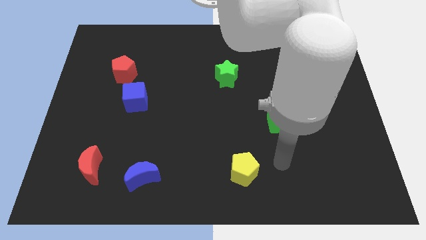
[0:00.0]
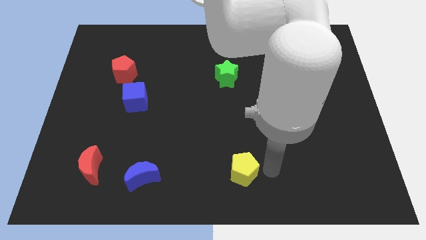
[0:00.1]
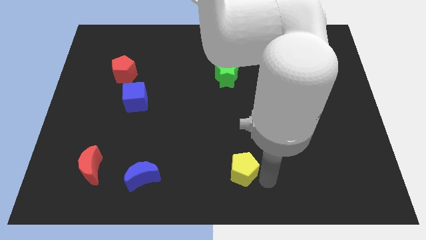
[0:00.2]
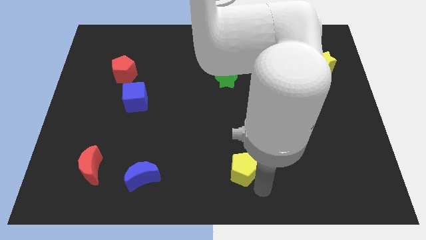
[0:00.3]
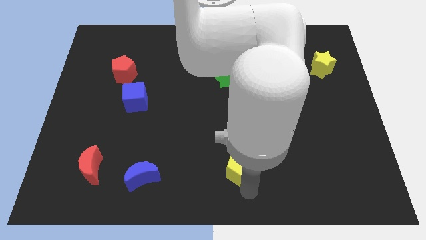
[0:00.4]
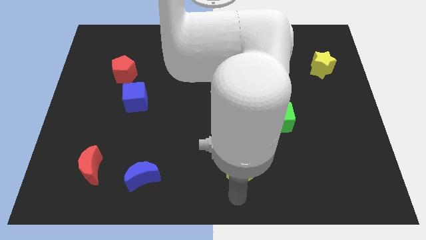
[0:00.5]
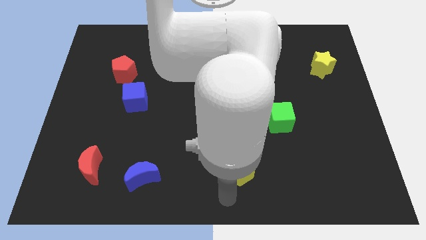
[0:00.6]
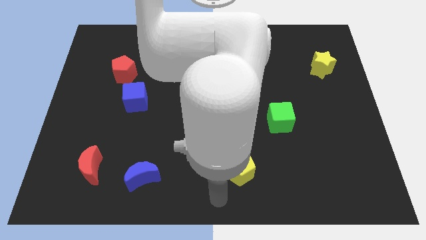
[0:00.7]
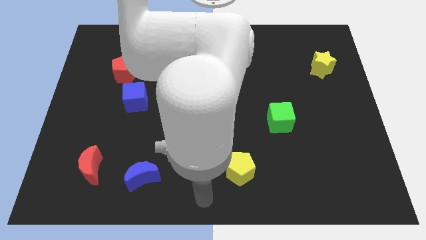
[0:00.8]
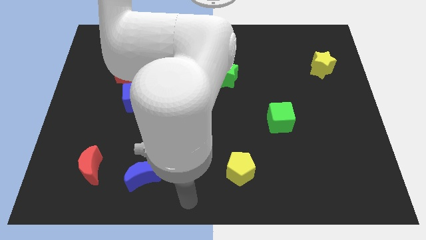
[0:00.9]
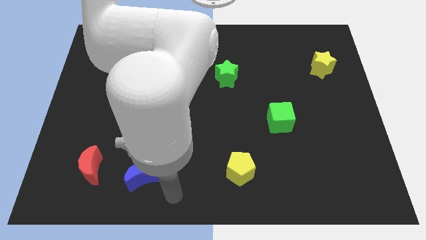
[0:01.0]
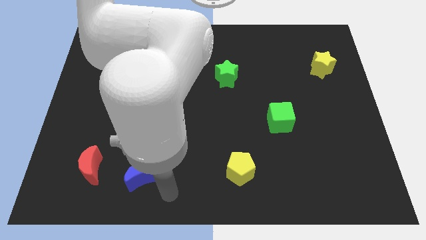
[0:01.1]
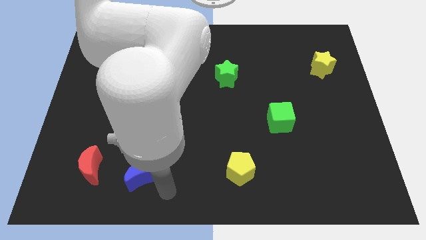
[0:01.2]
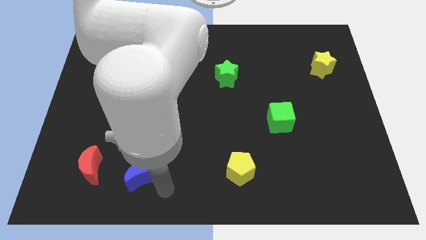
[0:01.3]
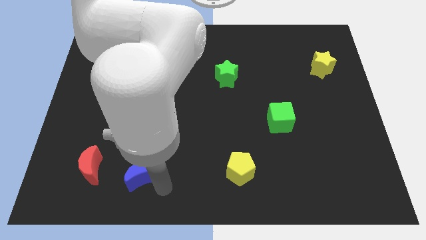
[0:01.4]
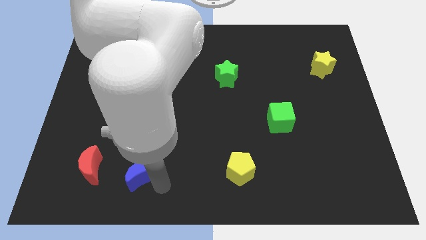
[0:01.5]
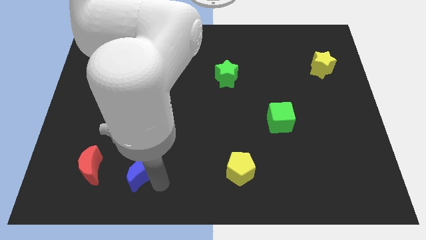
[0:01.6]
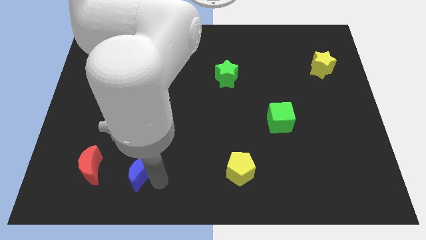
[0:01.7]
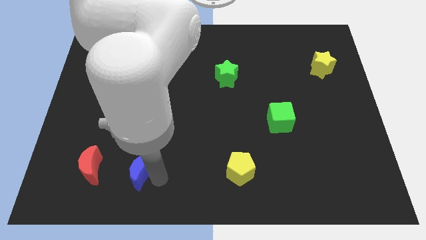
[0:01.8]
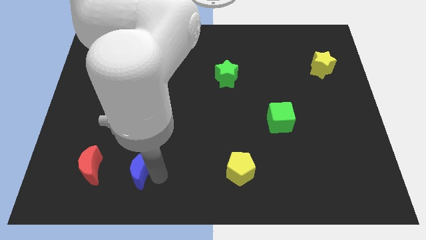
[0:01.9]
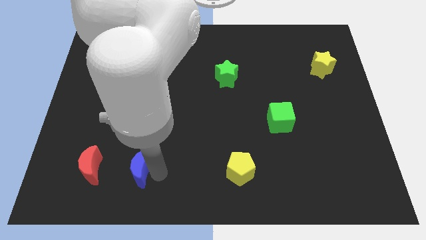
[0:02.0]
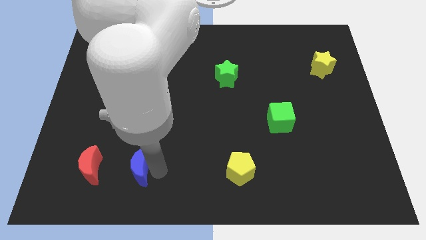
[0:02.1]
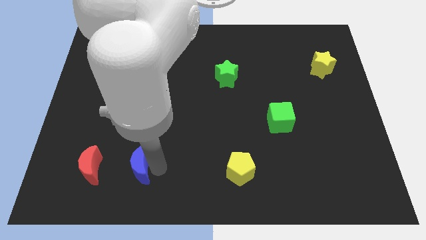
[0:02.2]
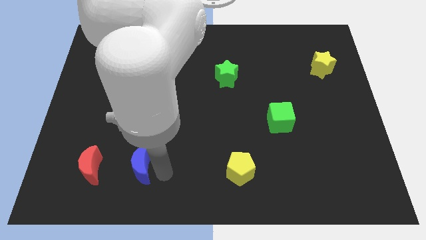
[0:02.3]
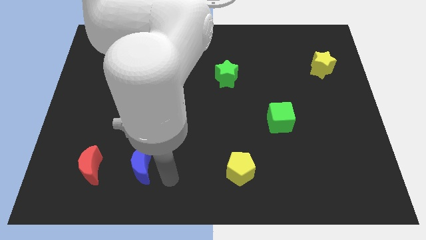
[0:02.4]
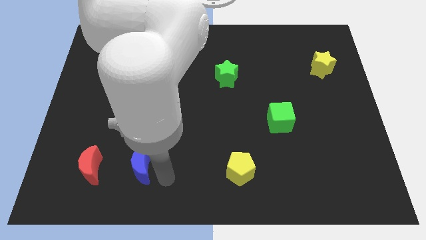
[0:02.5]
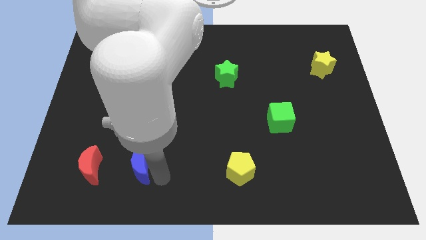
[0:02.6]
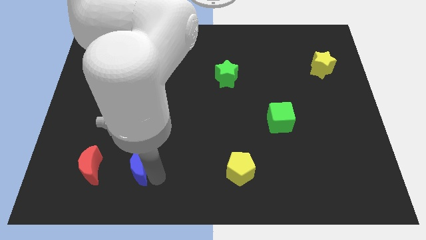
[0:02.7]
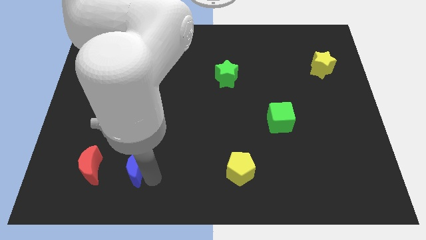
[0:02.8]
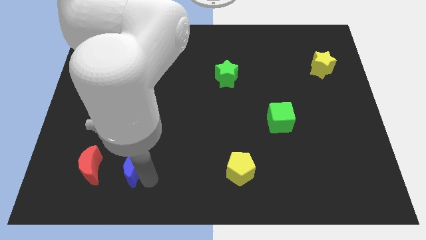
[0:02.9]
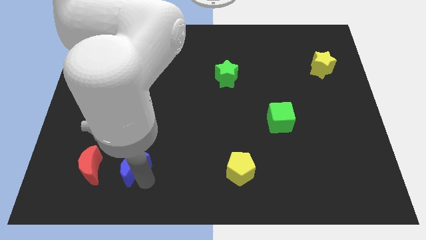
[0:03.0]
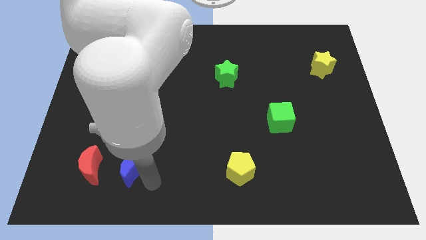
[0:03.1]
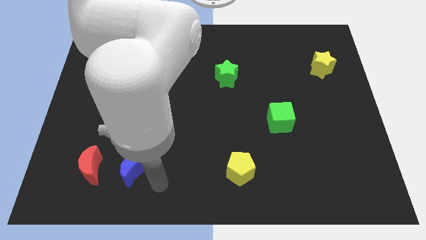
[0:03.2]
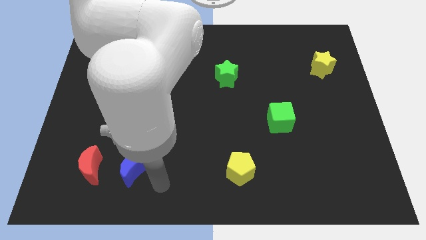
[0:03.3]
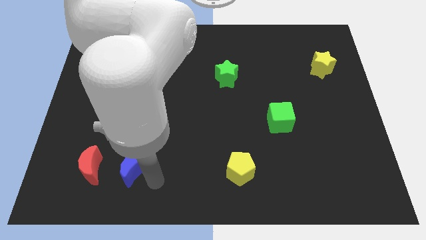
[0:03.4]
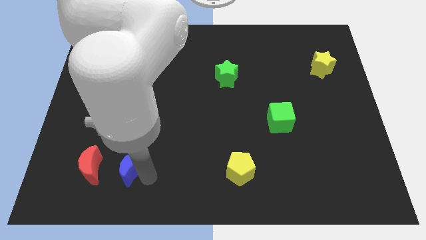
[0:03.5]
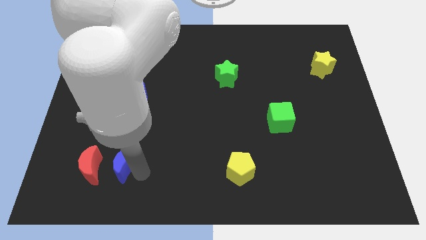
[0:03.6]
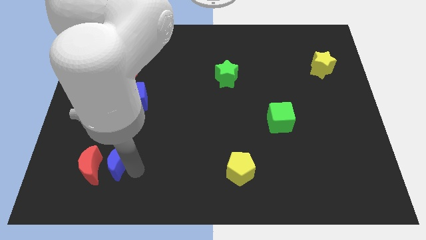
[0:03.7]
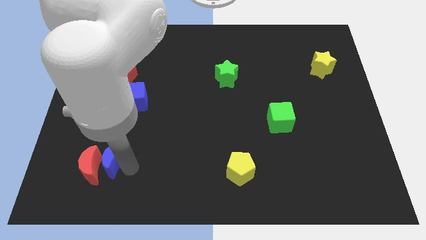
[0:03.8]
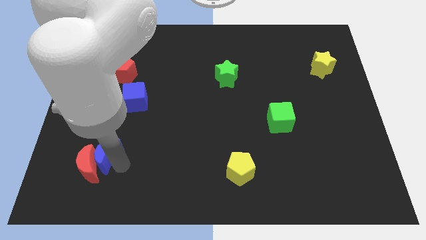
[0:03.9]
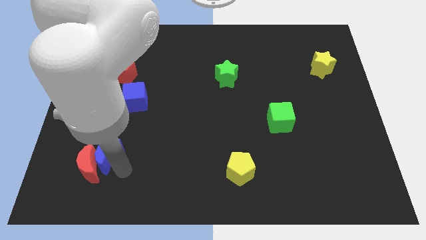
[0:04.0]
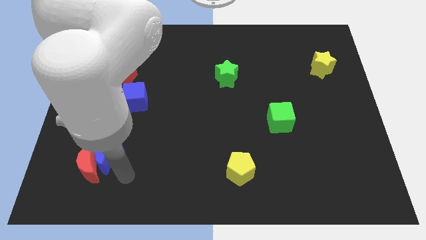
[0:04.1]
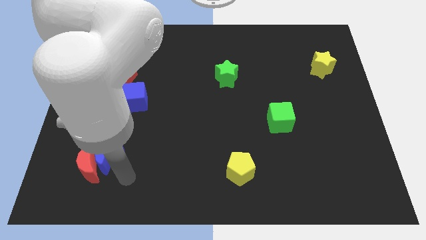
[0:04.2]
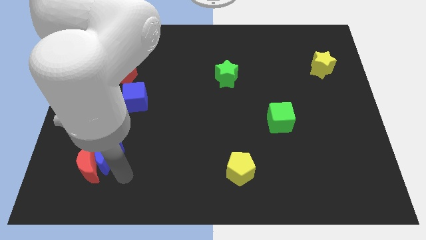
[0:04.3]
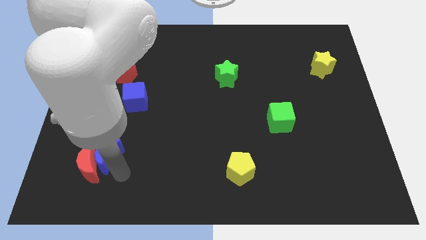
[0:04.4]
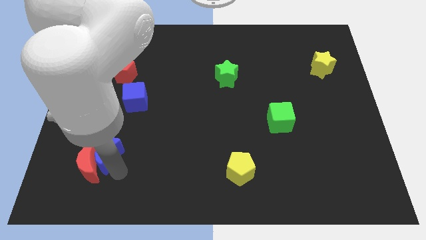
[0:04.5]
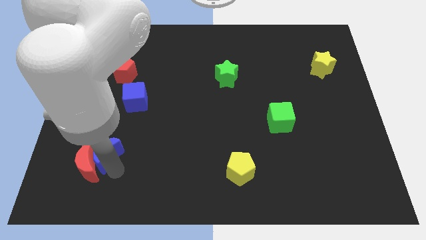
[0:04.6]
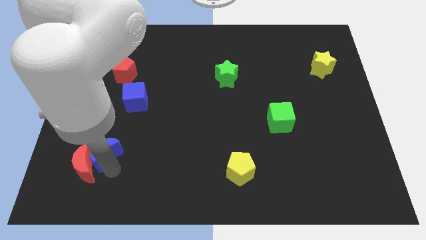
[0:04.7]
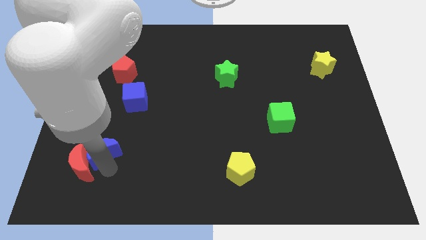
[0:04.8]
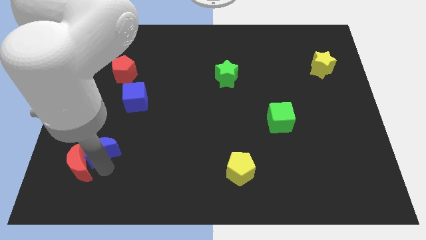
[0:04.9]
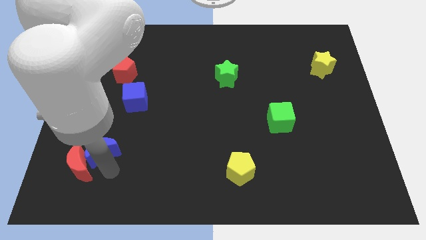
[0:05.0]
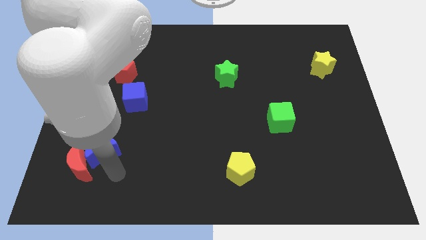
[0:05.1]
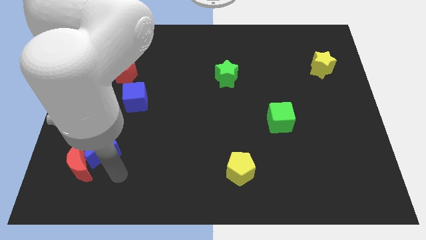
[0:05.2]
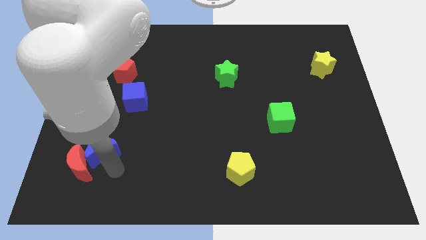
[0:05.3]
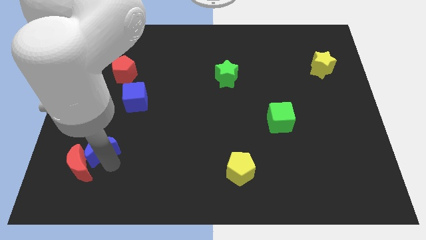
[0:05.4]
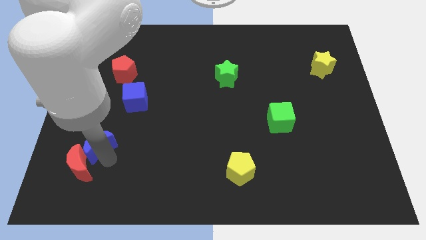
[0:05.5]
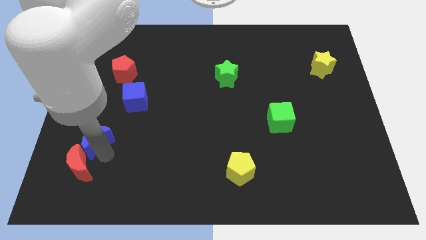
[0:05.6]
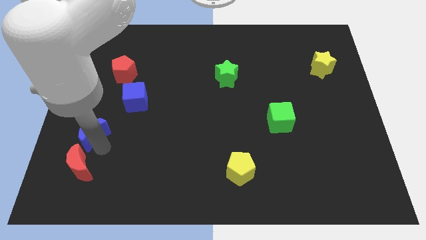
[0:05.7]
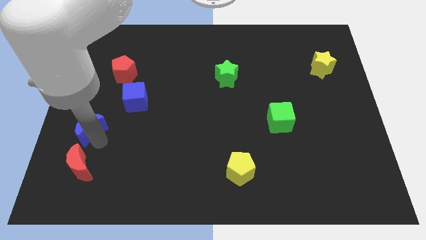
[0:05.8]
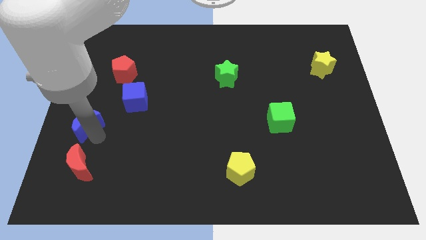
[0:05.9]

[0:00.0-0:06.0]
put the blue moon to the center left

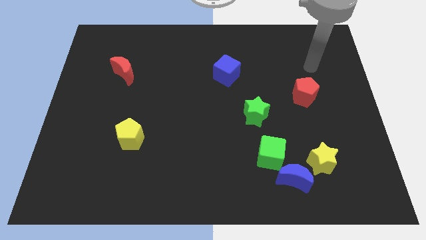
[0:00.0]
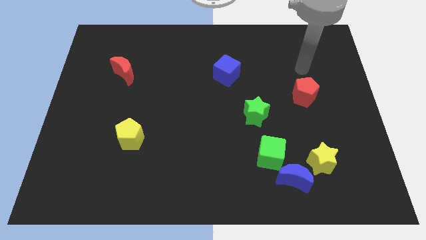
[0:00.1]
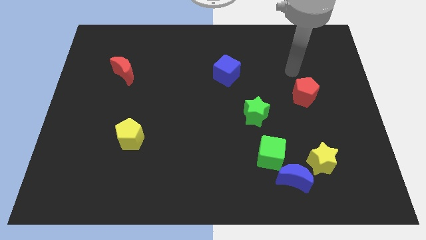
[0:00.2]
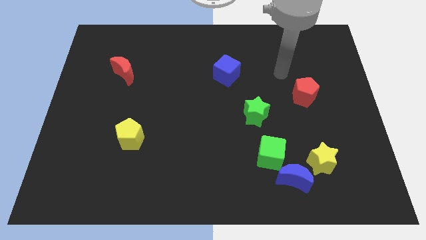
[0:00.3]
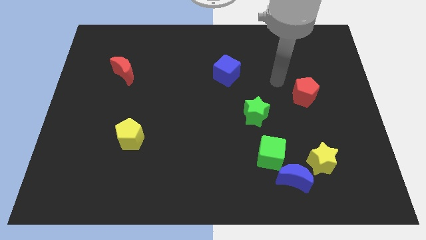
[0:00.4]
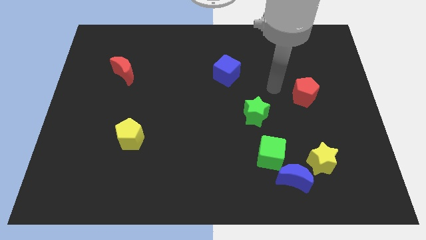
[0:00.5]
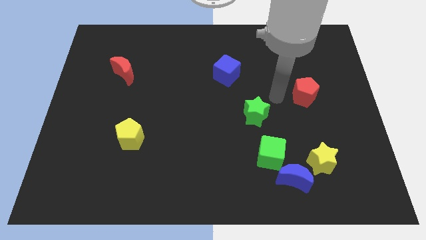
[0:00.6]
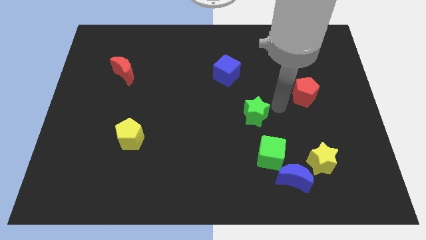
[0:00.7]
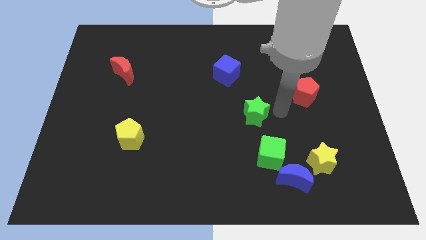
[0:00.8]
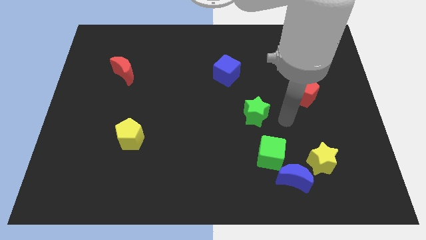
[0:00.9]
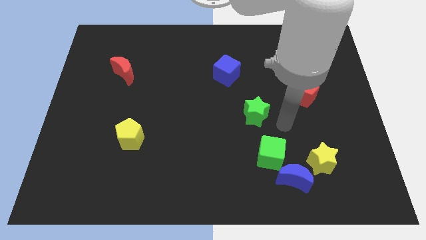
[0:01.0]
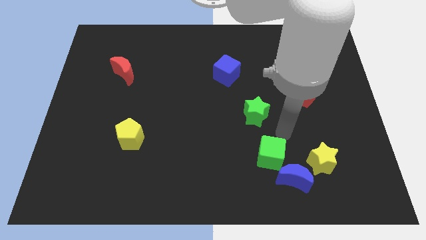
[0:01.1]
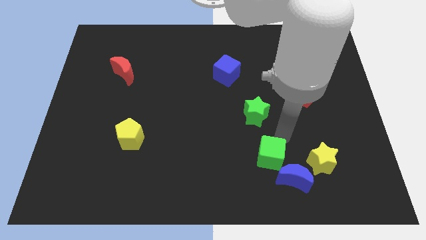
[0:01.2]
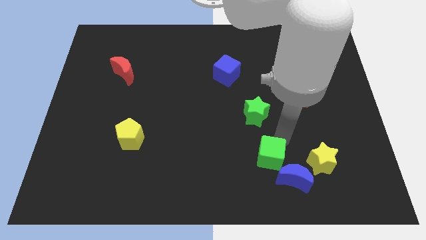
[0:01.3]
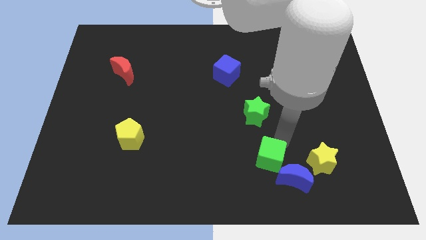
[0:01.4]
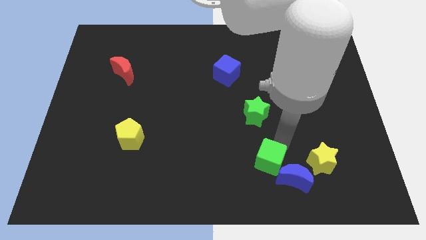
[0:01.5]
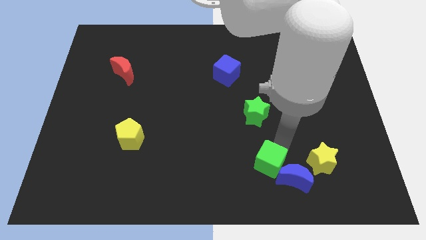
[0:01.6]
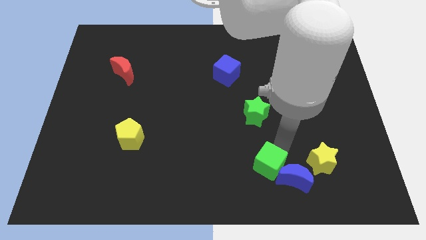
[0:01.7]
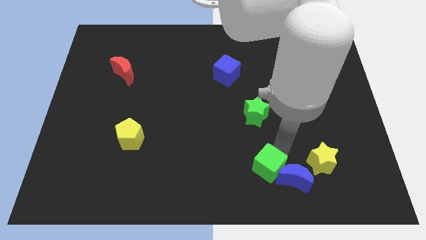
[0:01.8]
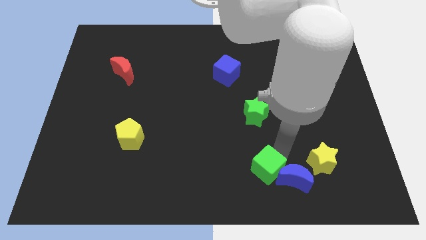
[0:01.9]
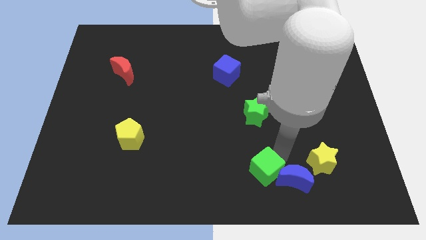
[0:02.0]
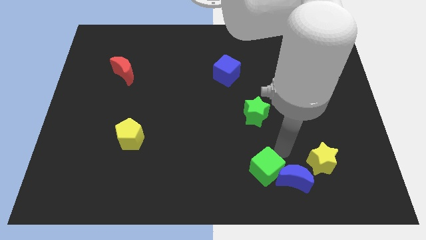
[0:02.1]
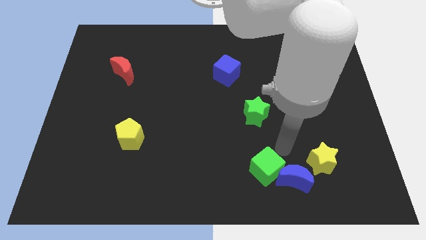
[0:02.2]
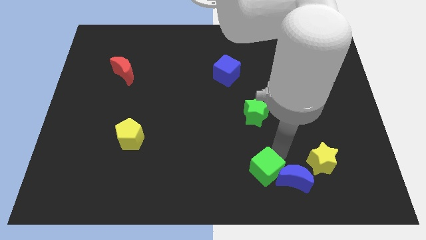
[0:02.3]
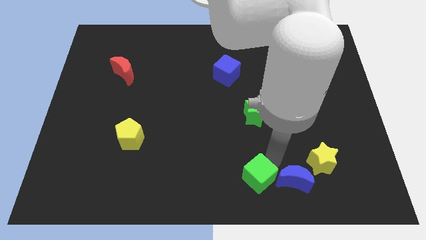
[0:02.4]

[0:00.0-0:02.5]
move the green cube to the bottom
